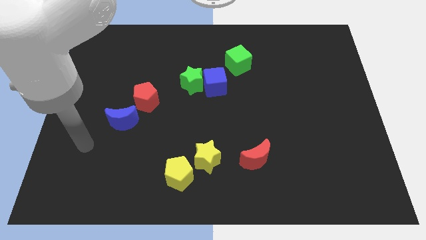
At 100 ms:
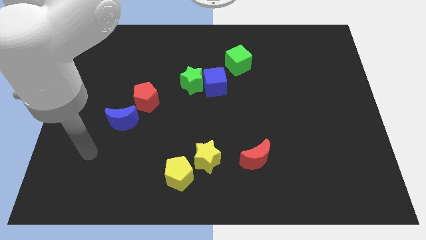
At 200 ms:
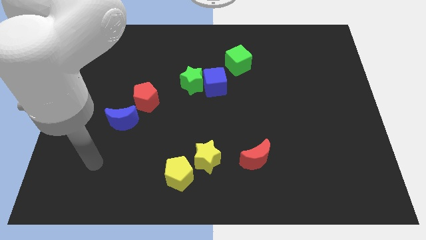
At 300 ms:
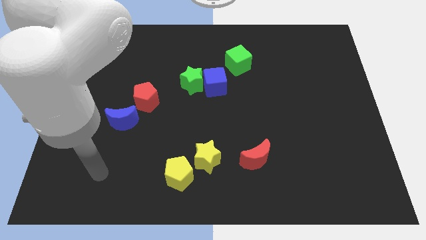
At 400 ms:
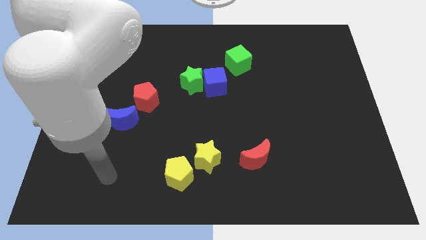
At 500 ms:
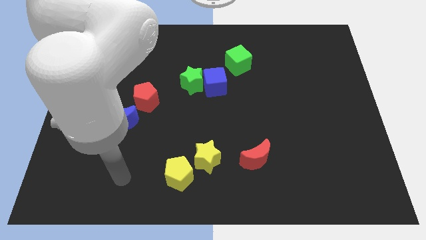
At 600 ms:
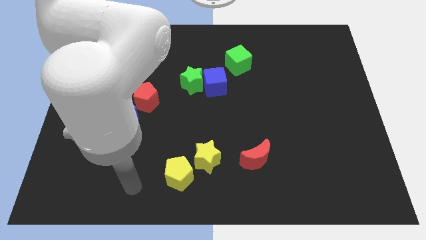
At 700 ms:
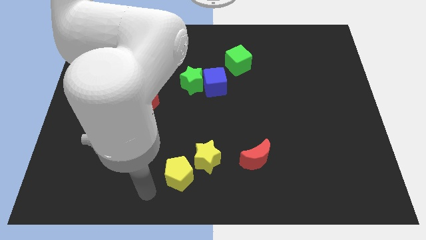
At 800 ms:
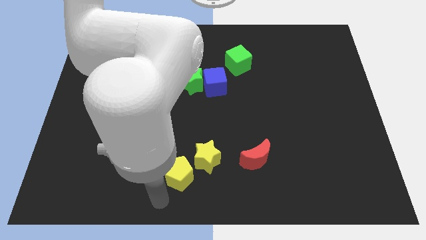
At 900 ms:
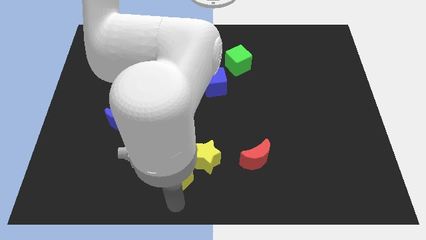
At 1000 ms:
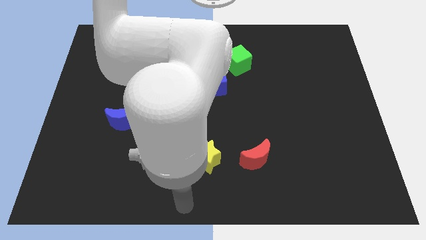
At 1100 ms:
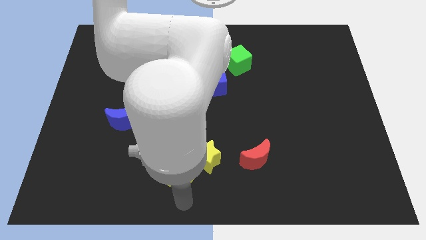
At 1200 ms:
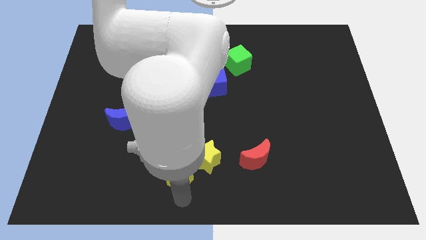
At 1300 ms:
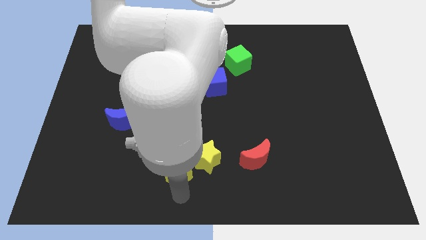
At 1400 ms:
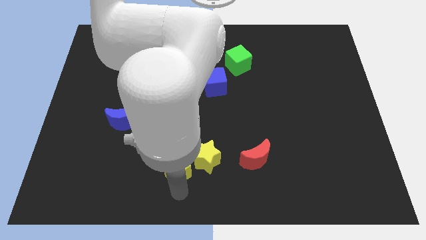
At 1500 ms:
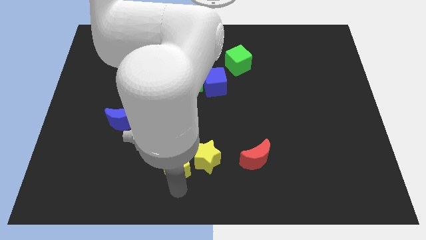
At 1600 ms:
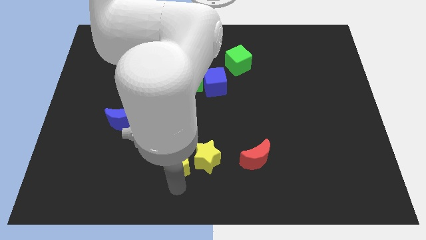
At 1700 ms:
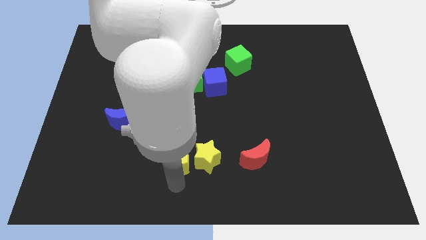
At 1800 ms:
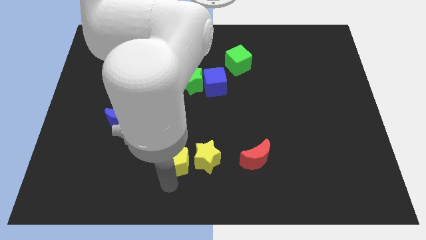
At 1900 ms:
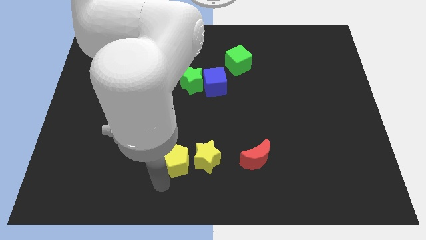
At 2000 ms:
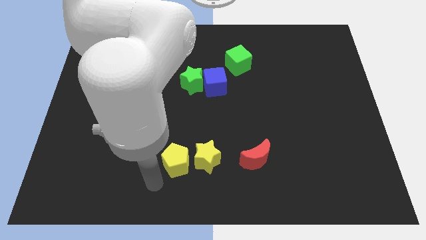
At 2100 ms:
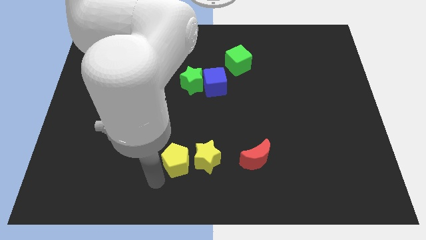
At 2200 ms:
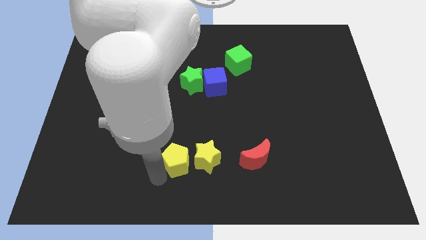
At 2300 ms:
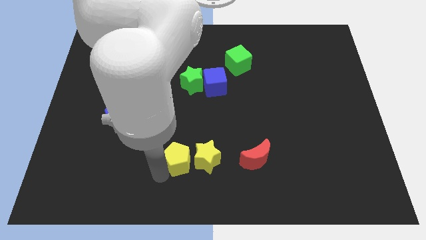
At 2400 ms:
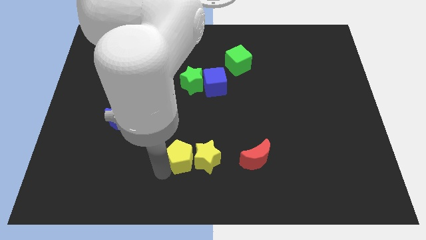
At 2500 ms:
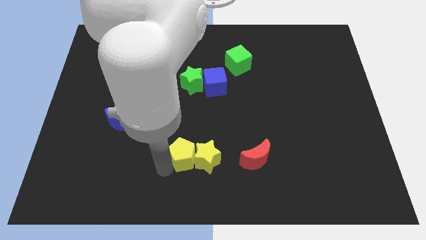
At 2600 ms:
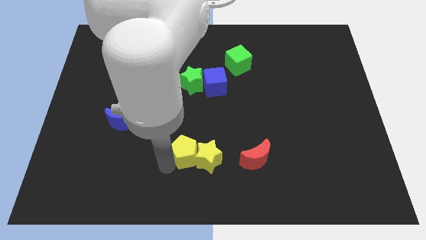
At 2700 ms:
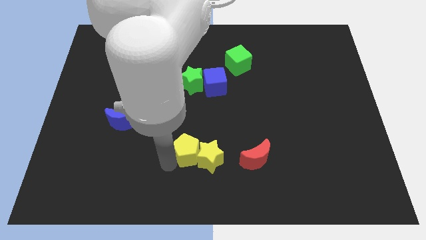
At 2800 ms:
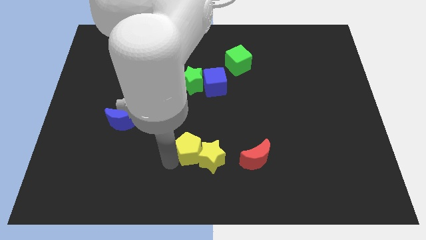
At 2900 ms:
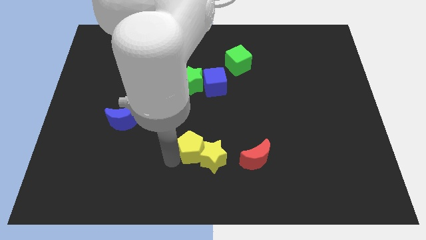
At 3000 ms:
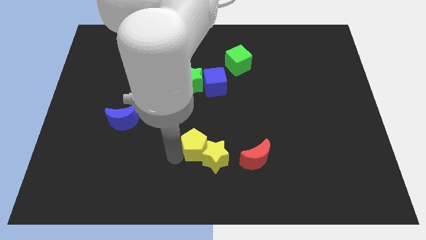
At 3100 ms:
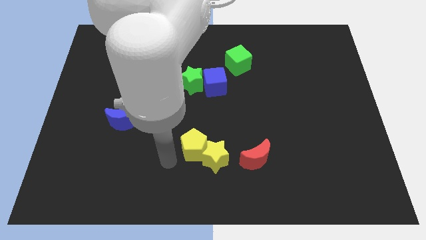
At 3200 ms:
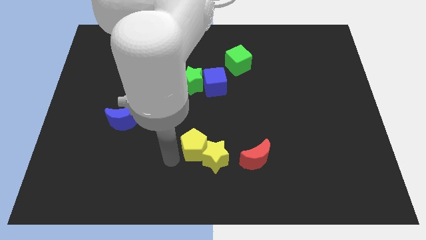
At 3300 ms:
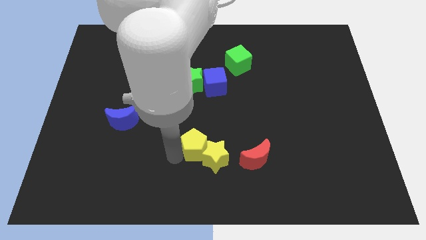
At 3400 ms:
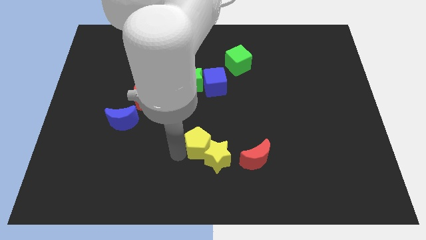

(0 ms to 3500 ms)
slide the yellow pentagon somewhat upwards and right diagonally

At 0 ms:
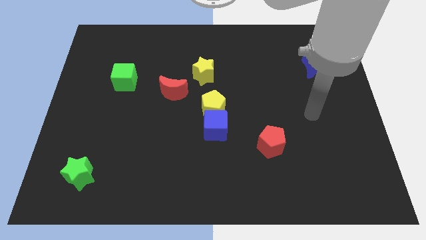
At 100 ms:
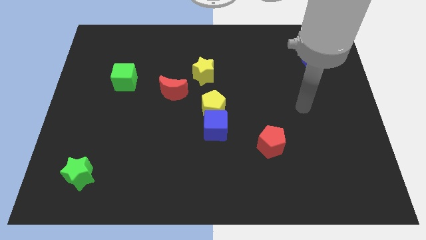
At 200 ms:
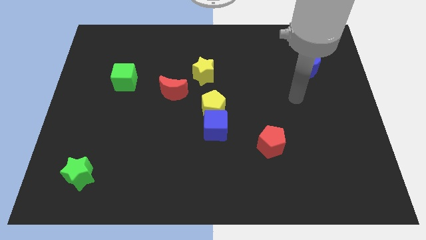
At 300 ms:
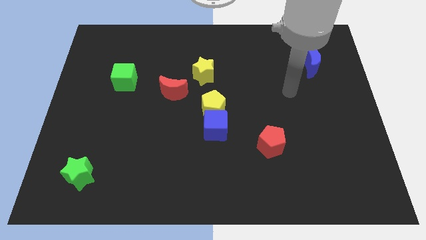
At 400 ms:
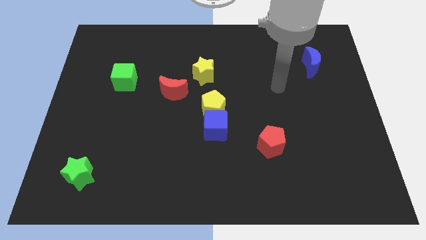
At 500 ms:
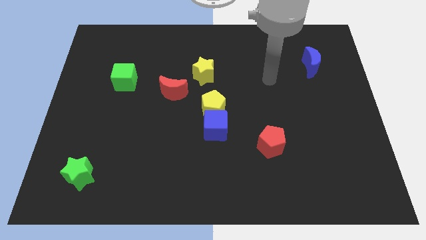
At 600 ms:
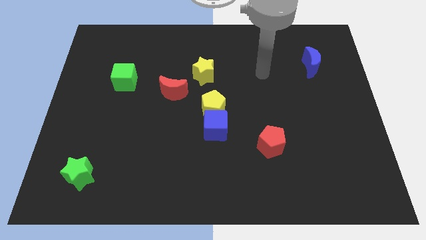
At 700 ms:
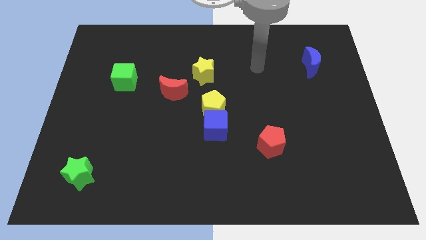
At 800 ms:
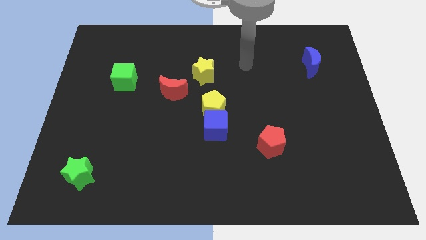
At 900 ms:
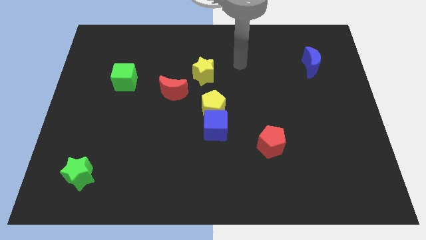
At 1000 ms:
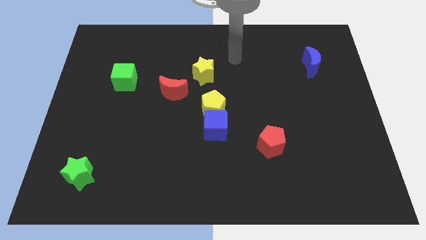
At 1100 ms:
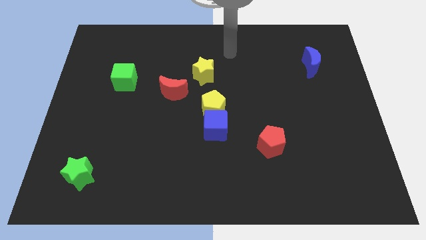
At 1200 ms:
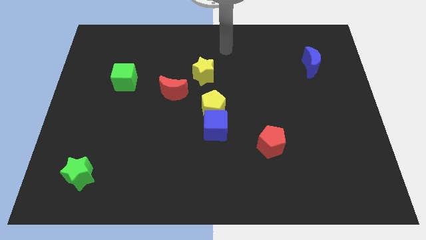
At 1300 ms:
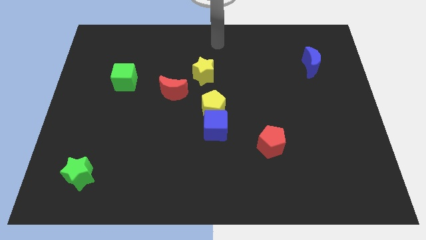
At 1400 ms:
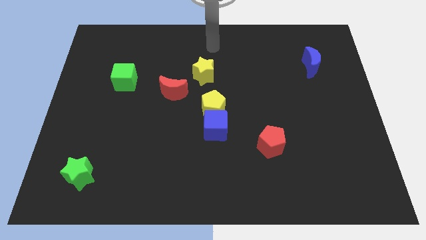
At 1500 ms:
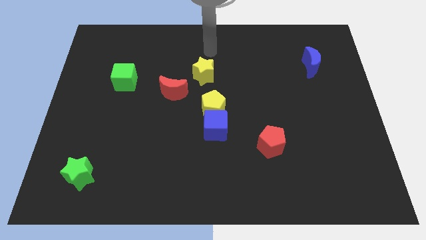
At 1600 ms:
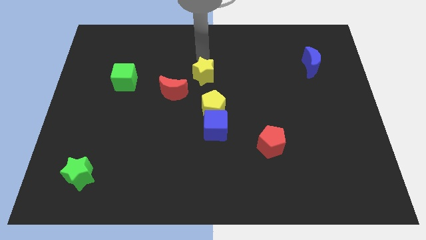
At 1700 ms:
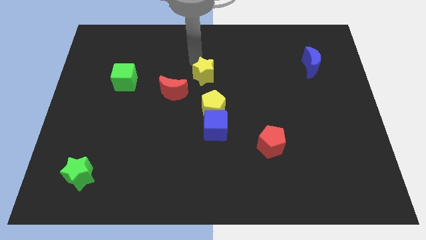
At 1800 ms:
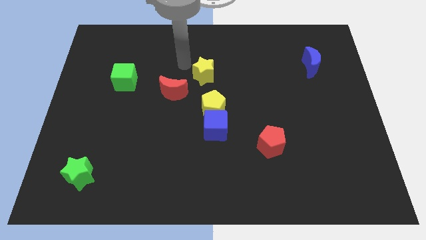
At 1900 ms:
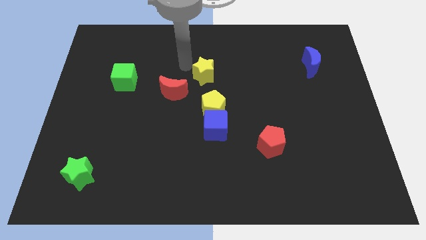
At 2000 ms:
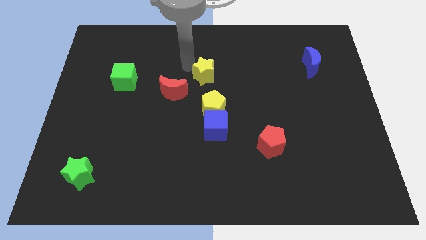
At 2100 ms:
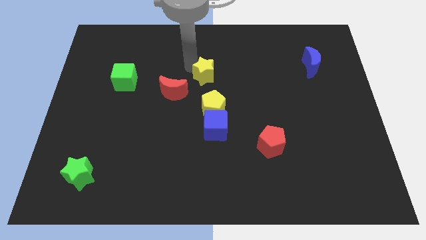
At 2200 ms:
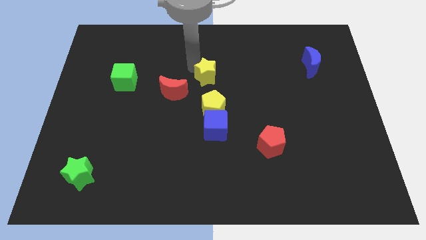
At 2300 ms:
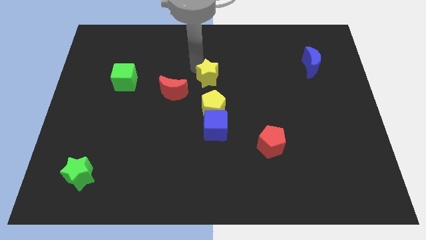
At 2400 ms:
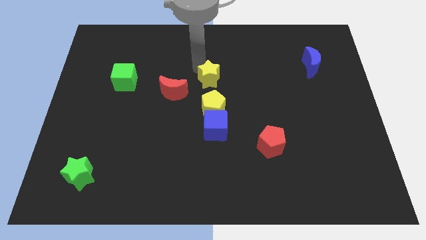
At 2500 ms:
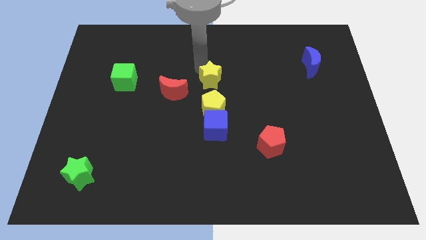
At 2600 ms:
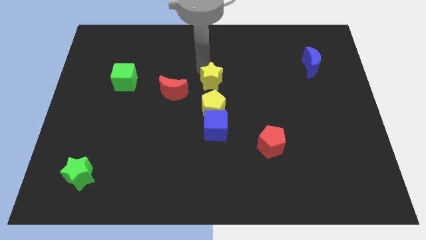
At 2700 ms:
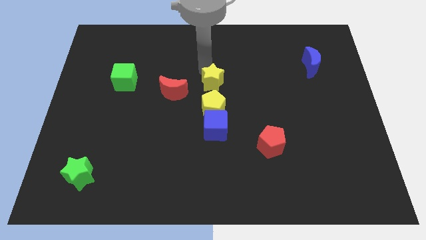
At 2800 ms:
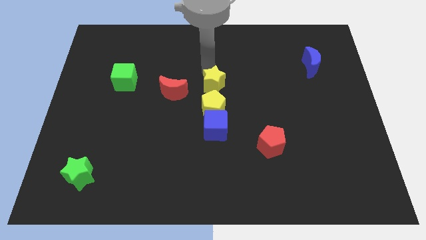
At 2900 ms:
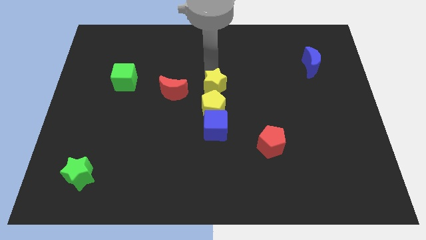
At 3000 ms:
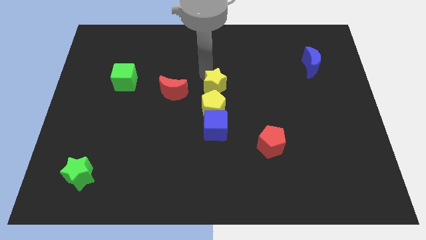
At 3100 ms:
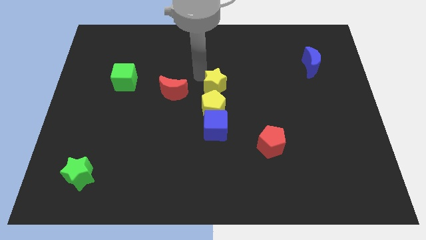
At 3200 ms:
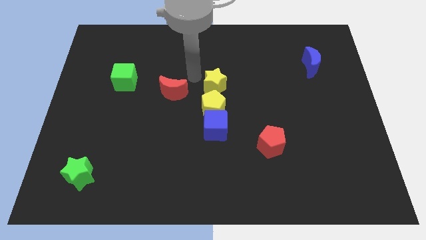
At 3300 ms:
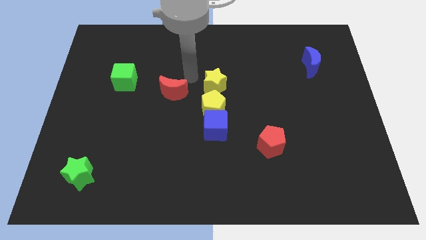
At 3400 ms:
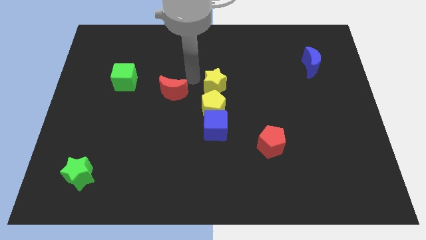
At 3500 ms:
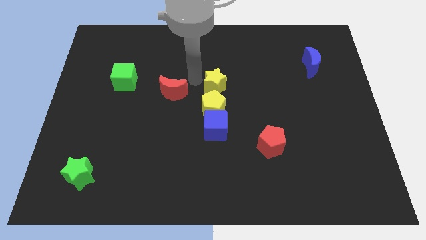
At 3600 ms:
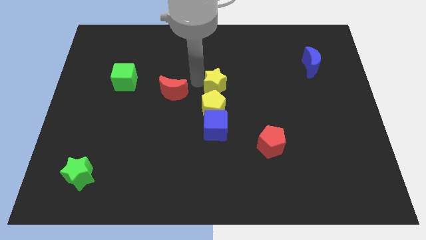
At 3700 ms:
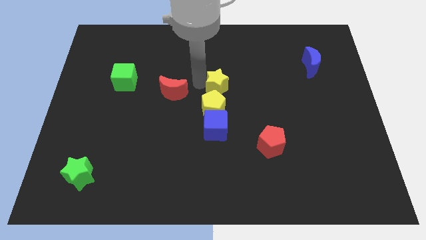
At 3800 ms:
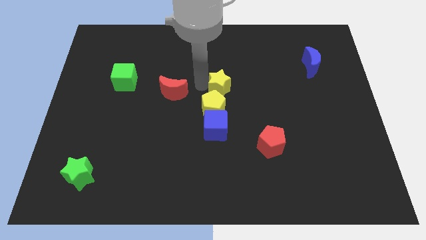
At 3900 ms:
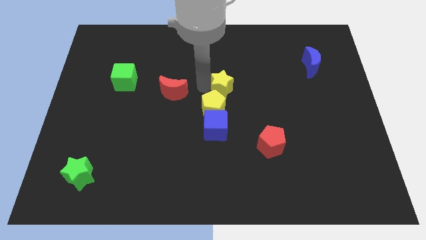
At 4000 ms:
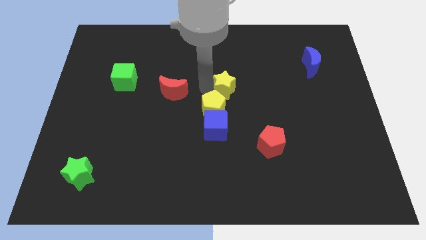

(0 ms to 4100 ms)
slide the yellow star a little bit diagonally downwards and to the right

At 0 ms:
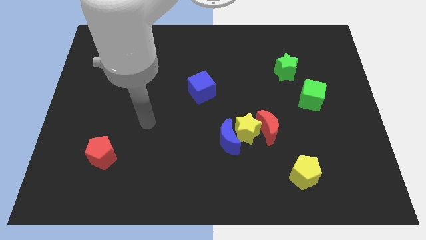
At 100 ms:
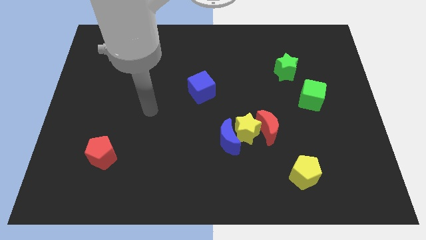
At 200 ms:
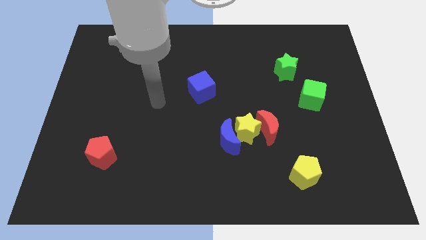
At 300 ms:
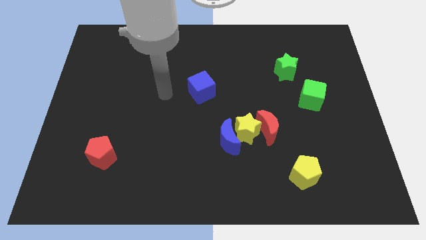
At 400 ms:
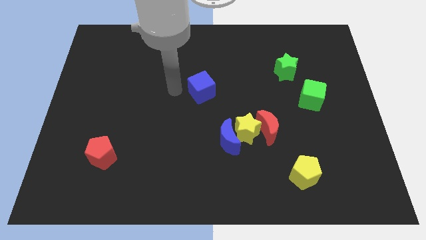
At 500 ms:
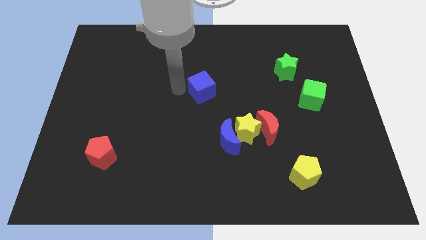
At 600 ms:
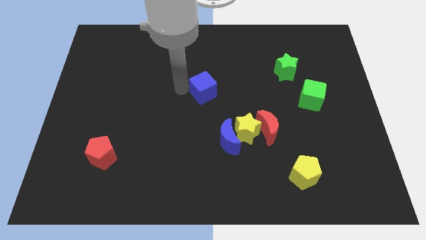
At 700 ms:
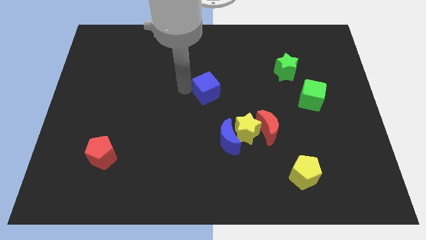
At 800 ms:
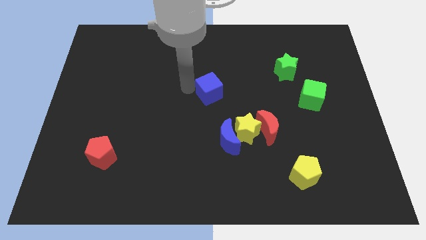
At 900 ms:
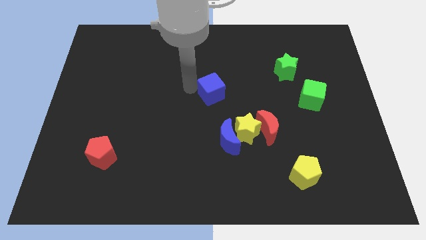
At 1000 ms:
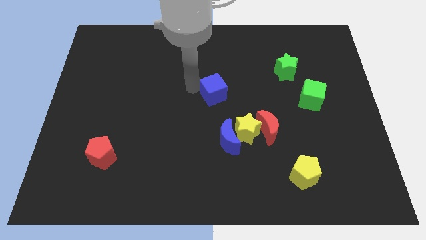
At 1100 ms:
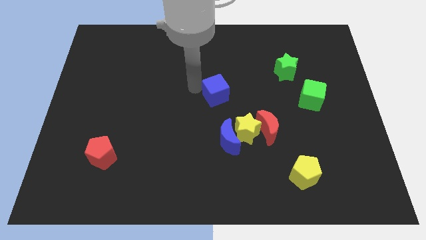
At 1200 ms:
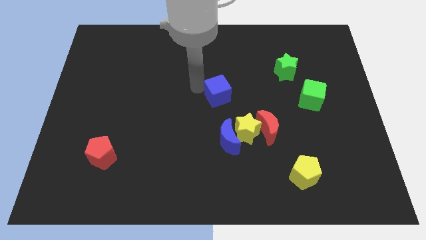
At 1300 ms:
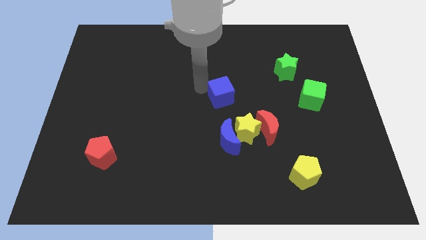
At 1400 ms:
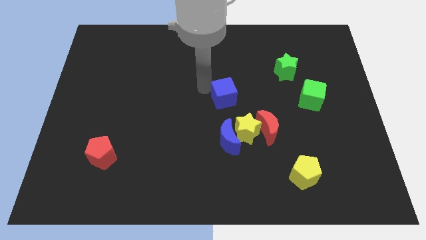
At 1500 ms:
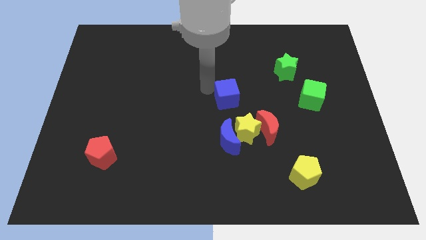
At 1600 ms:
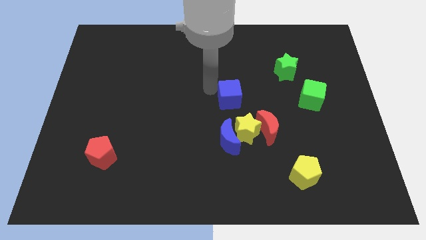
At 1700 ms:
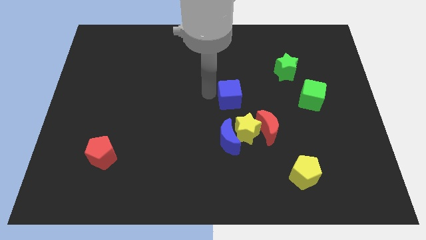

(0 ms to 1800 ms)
slightly slide the blue cube to the right
